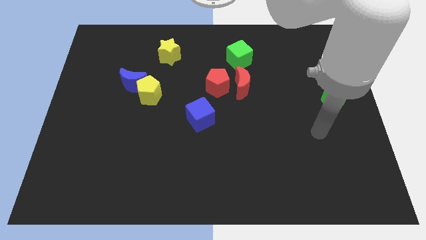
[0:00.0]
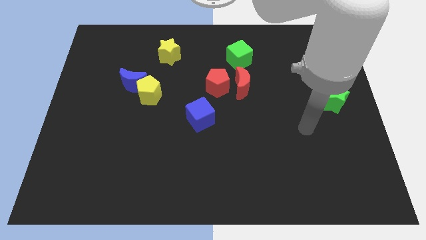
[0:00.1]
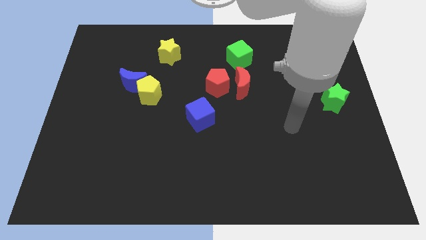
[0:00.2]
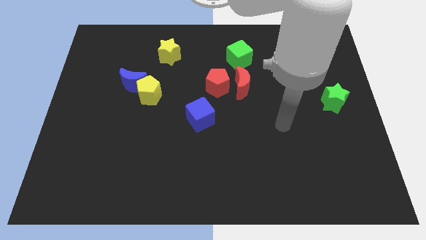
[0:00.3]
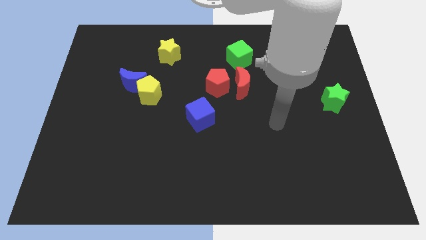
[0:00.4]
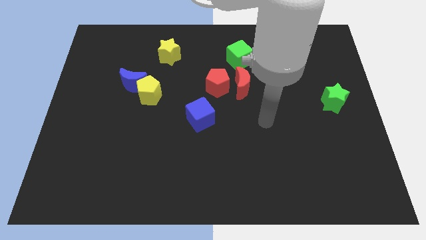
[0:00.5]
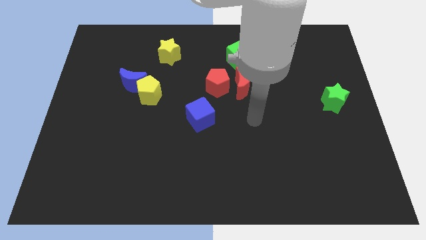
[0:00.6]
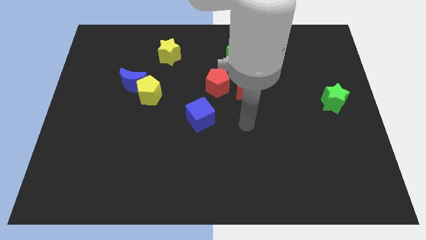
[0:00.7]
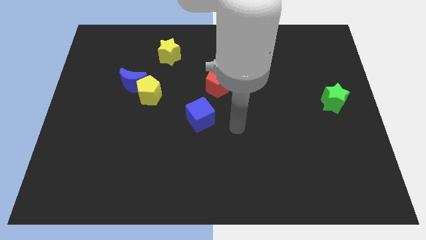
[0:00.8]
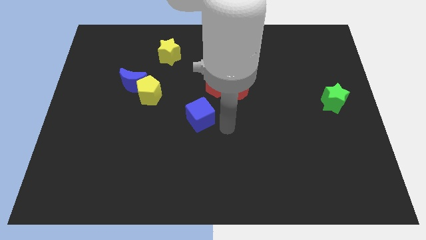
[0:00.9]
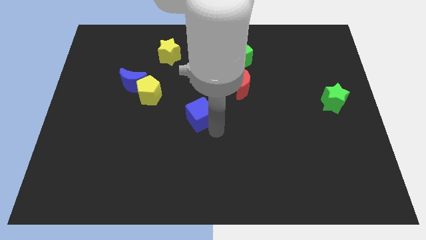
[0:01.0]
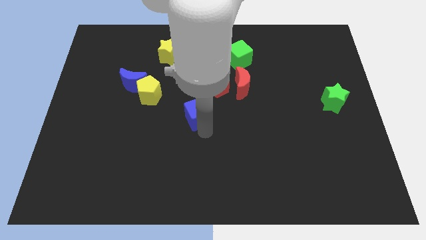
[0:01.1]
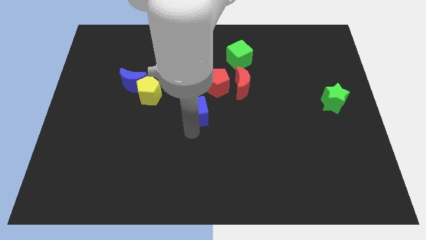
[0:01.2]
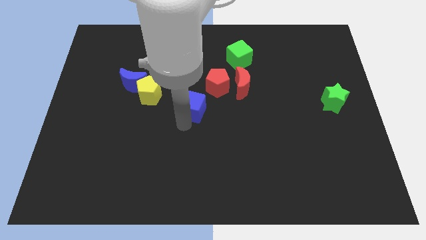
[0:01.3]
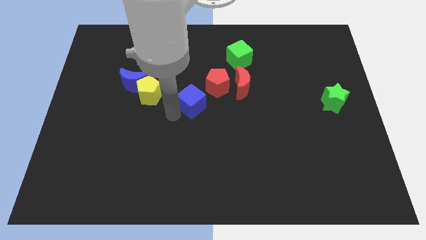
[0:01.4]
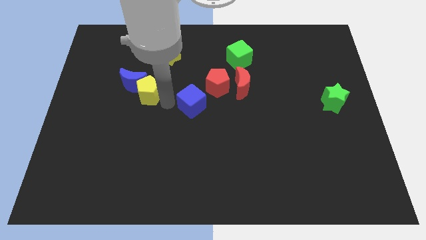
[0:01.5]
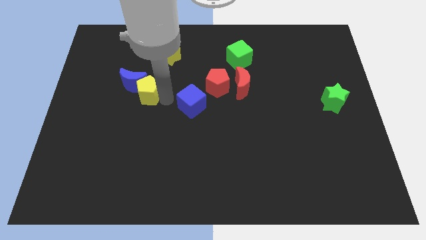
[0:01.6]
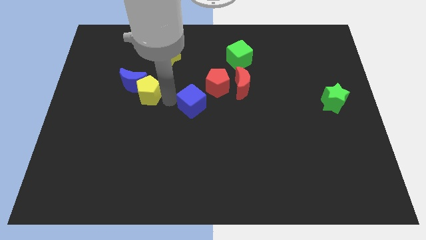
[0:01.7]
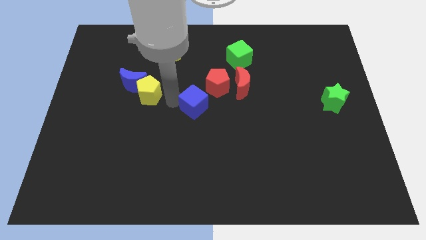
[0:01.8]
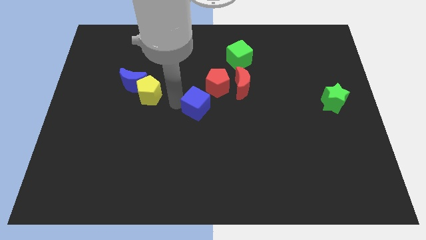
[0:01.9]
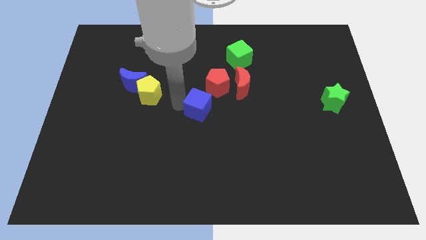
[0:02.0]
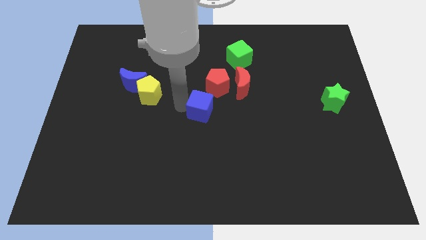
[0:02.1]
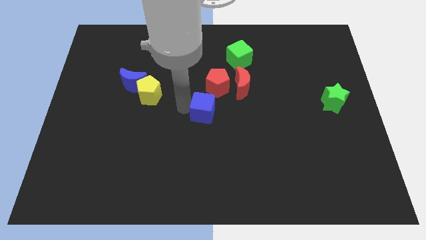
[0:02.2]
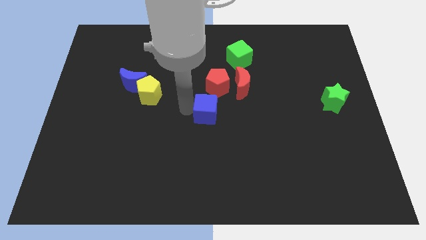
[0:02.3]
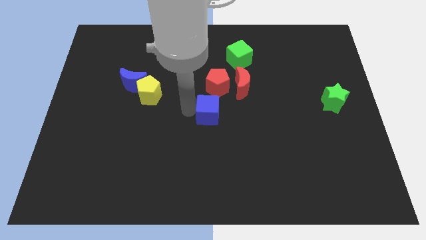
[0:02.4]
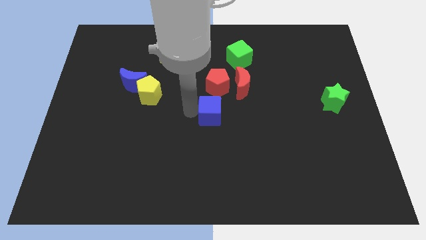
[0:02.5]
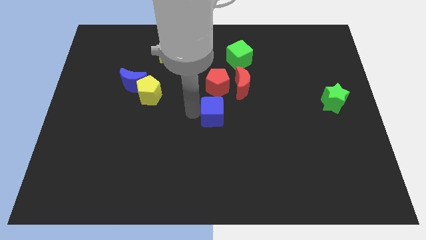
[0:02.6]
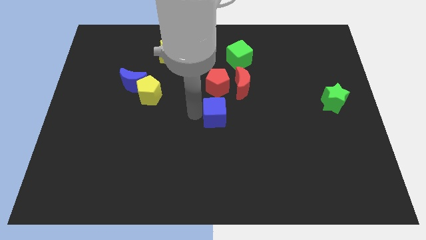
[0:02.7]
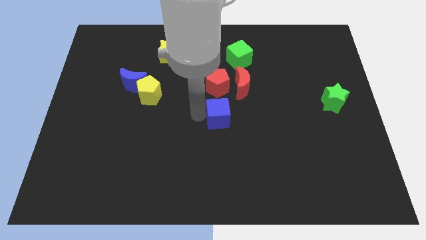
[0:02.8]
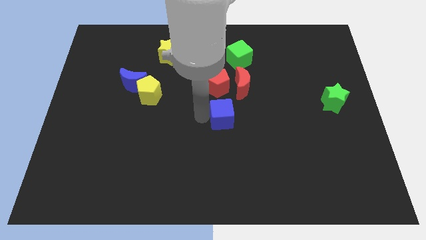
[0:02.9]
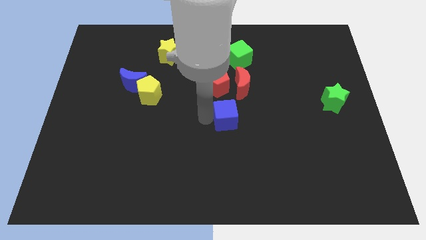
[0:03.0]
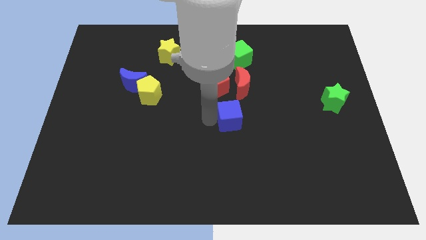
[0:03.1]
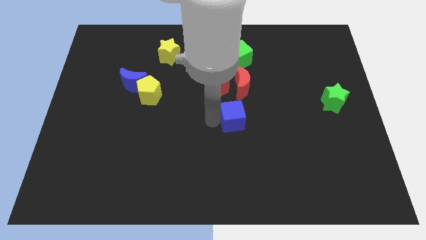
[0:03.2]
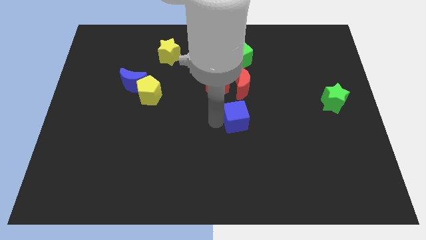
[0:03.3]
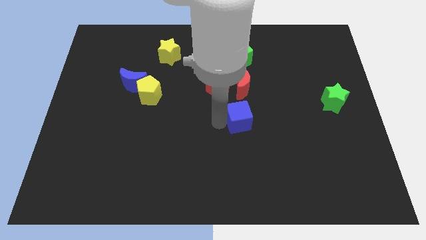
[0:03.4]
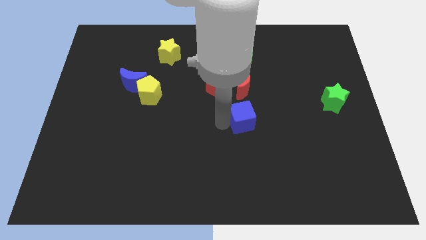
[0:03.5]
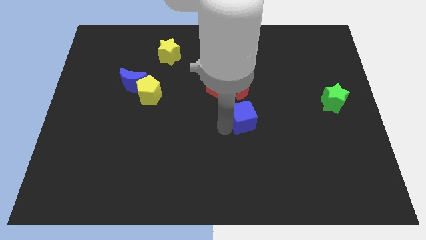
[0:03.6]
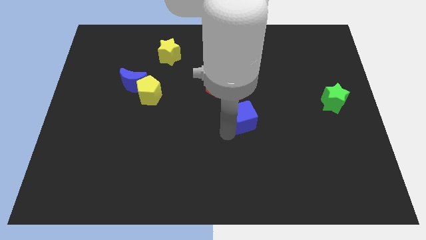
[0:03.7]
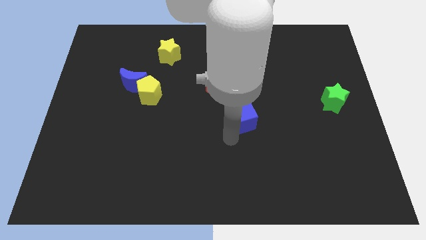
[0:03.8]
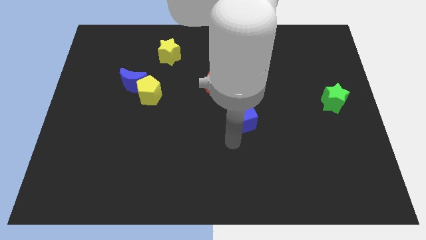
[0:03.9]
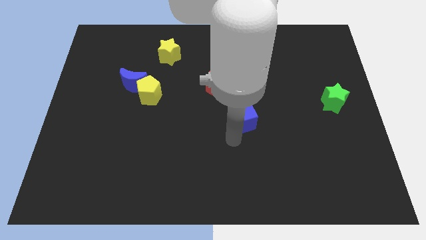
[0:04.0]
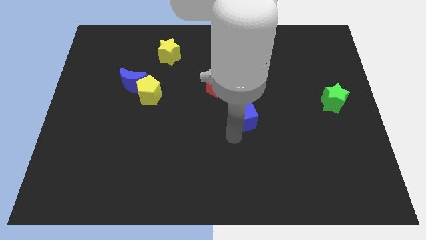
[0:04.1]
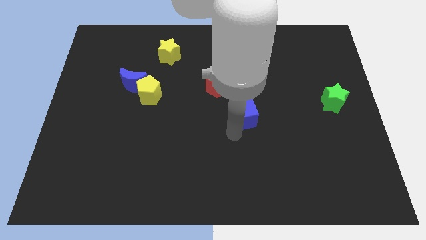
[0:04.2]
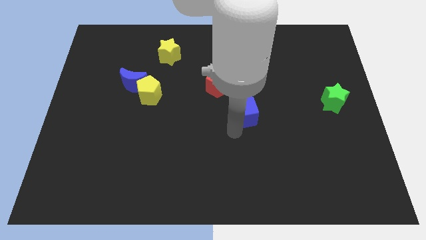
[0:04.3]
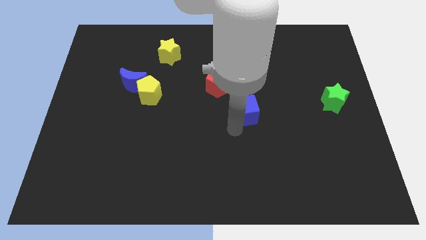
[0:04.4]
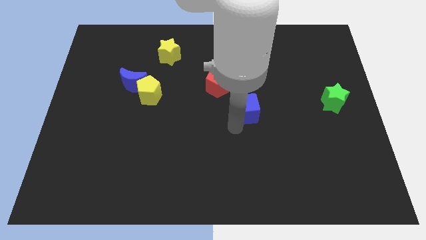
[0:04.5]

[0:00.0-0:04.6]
push the blue cube slightly up and right

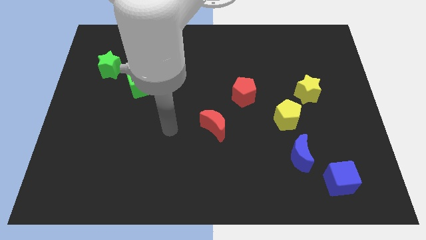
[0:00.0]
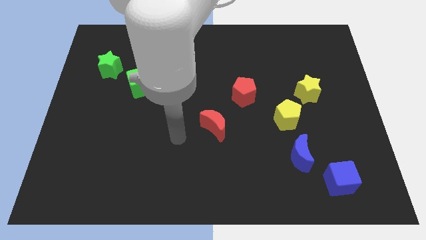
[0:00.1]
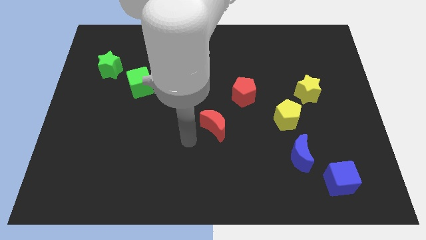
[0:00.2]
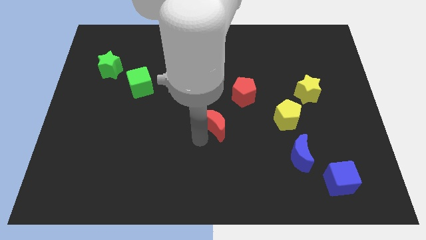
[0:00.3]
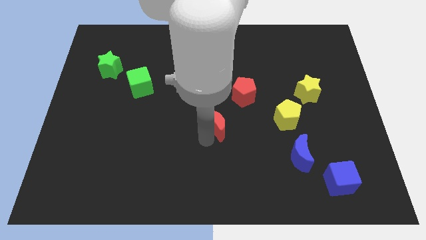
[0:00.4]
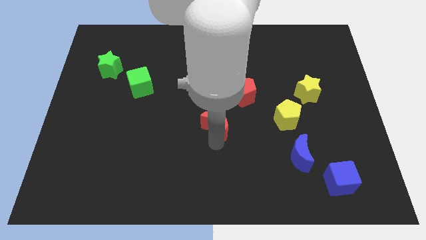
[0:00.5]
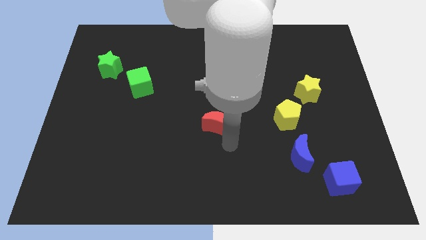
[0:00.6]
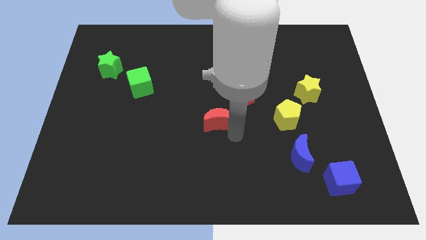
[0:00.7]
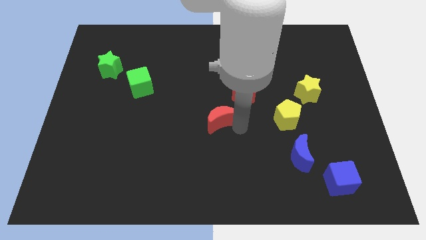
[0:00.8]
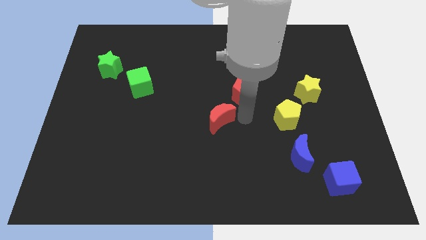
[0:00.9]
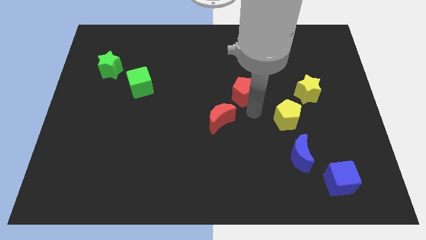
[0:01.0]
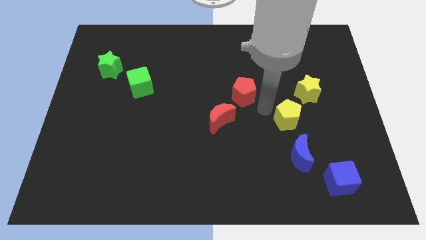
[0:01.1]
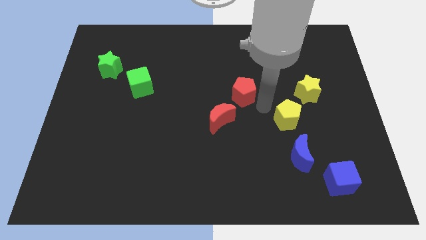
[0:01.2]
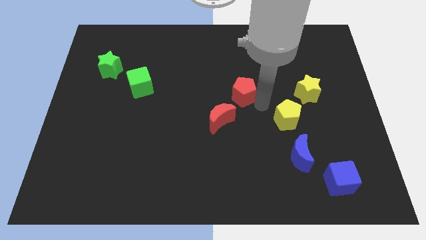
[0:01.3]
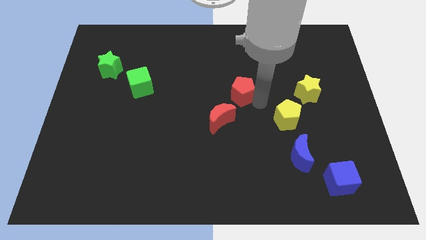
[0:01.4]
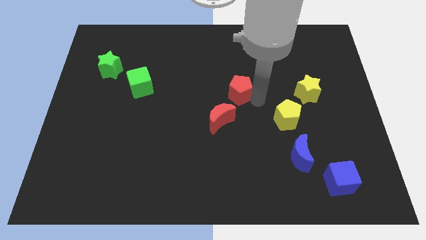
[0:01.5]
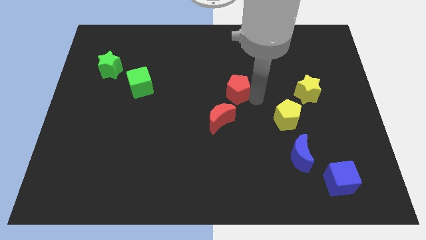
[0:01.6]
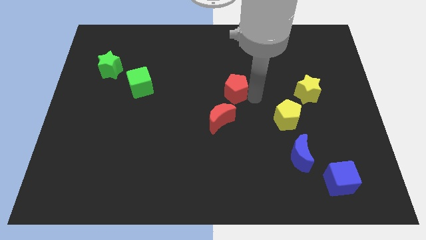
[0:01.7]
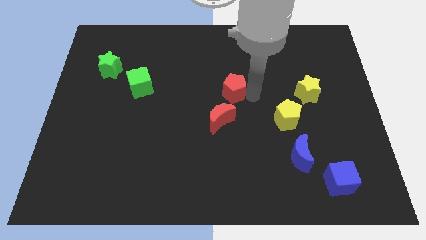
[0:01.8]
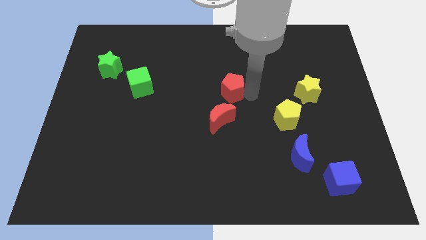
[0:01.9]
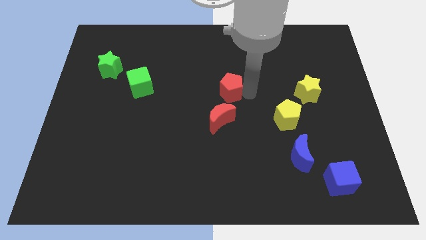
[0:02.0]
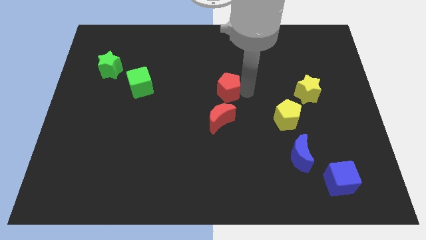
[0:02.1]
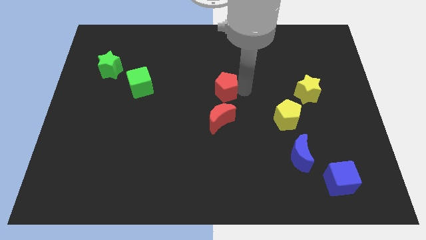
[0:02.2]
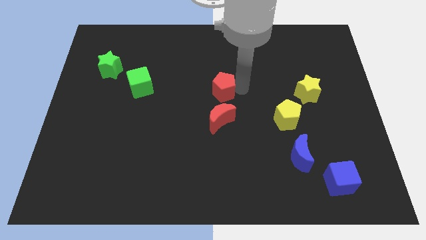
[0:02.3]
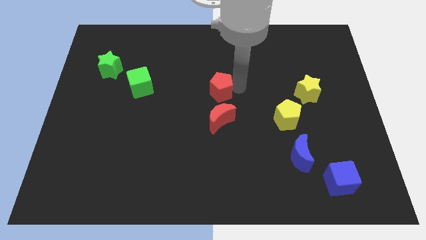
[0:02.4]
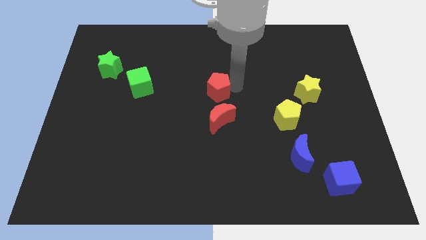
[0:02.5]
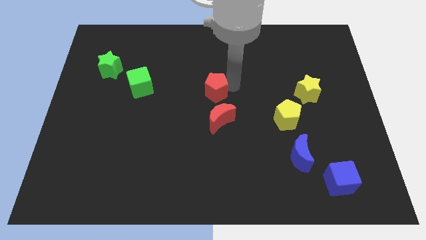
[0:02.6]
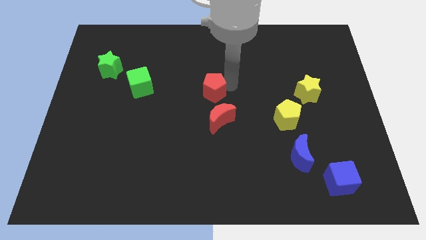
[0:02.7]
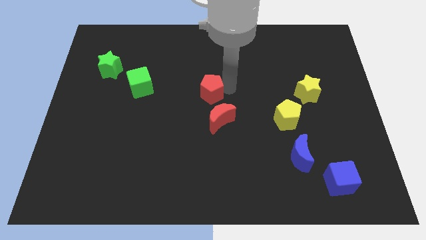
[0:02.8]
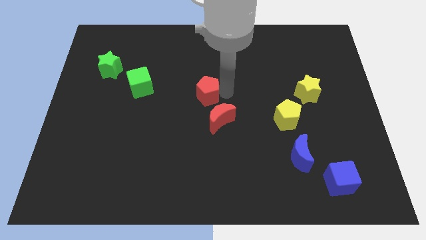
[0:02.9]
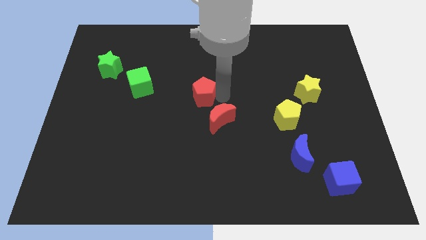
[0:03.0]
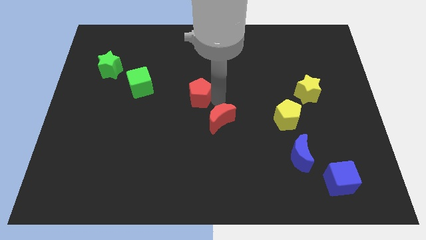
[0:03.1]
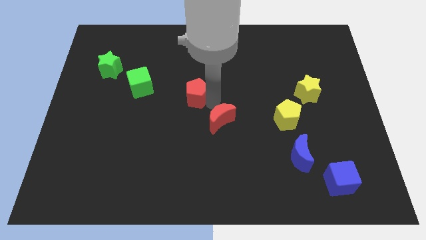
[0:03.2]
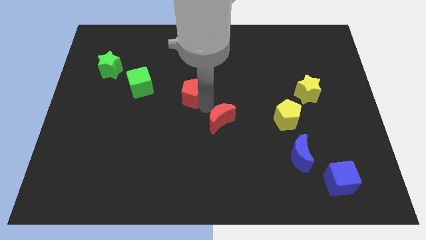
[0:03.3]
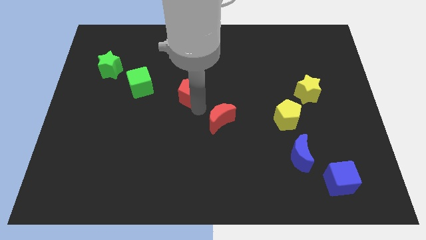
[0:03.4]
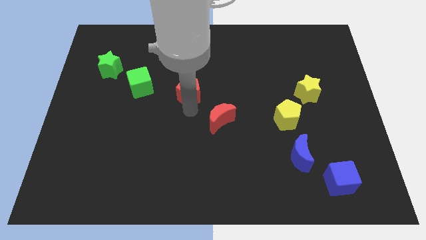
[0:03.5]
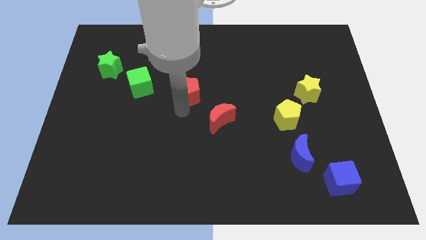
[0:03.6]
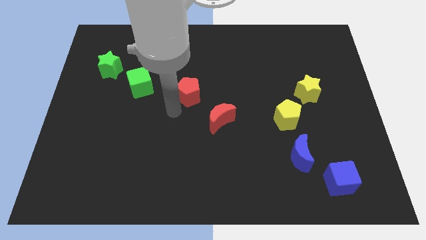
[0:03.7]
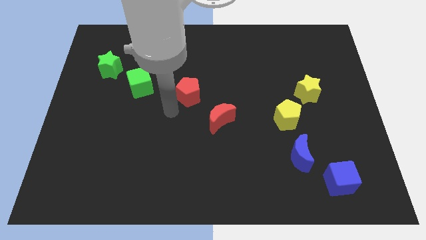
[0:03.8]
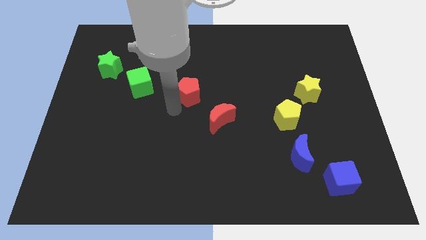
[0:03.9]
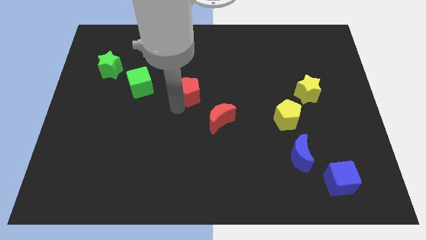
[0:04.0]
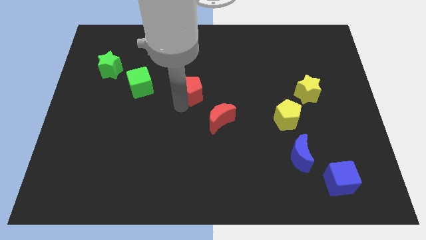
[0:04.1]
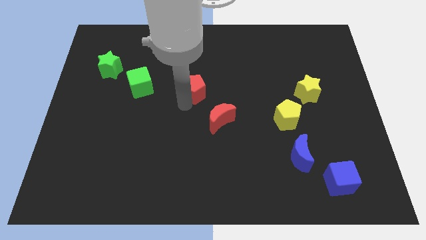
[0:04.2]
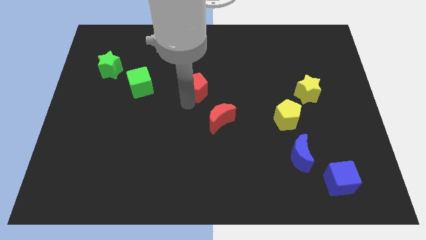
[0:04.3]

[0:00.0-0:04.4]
slide the red pentagon upwards and left a little bit
